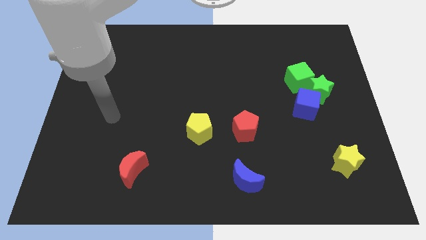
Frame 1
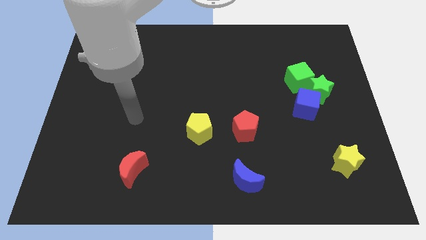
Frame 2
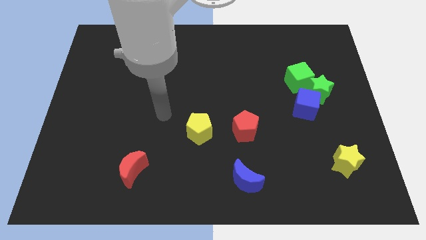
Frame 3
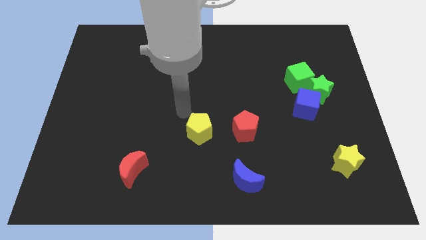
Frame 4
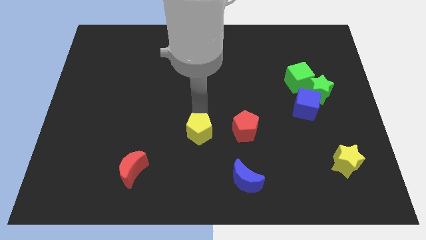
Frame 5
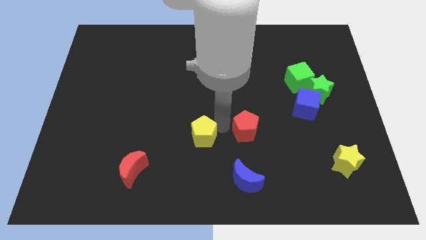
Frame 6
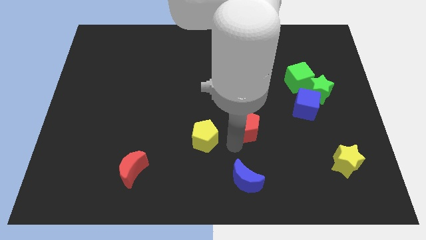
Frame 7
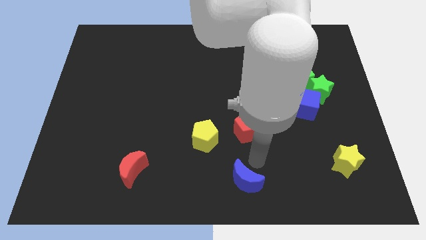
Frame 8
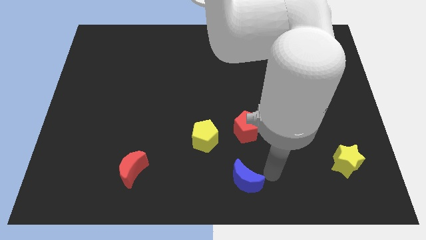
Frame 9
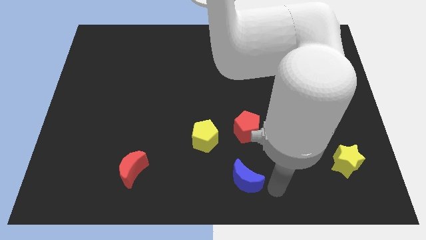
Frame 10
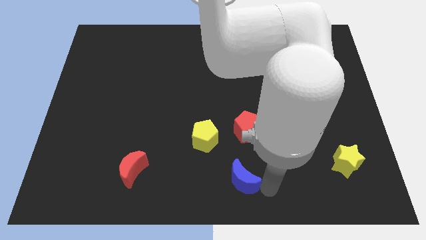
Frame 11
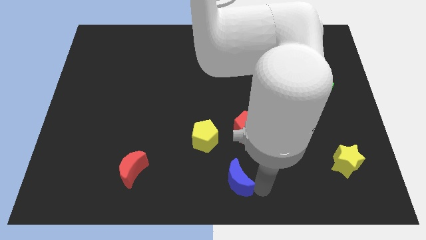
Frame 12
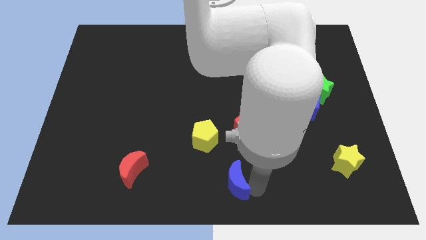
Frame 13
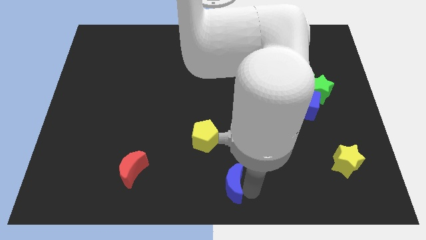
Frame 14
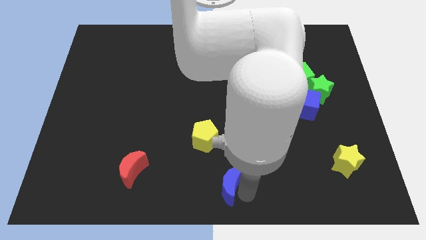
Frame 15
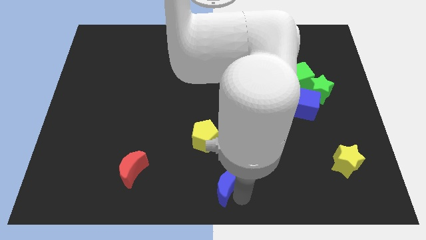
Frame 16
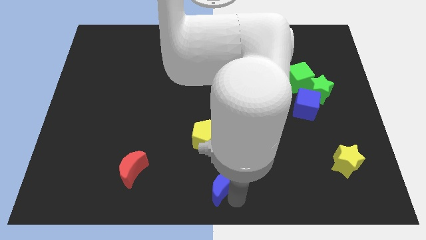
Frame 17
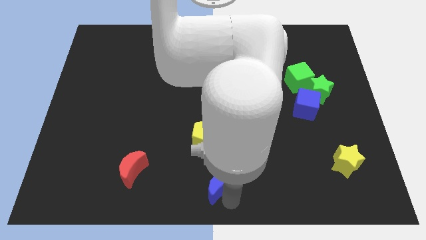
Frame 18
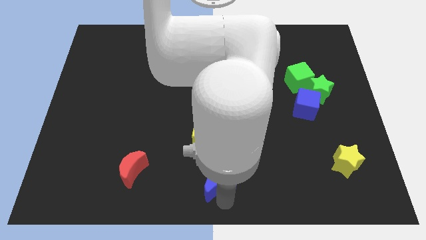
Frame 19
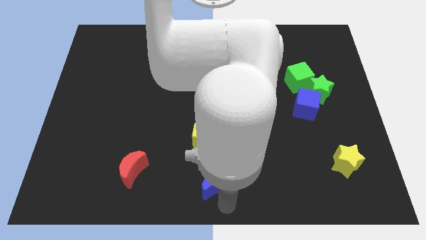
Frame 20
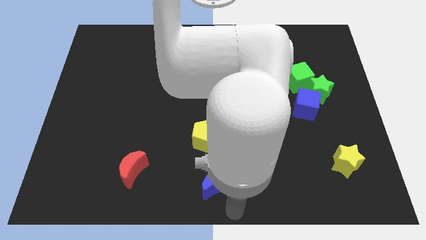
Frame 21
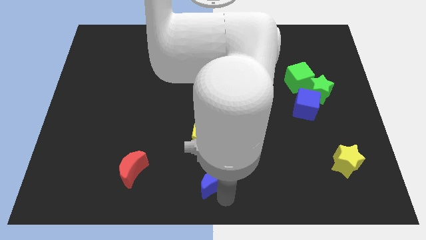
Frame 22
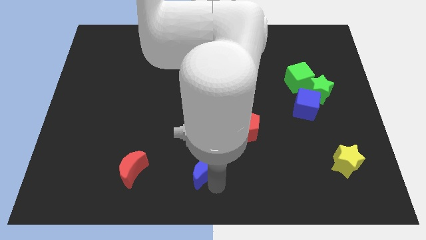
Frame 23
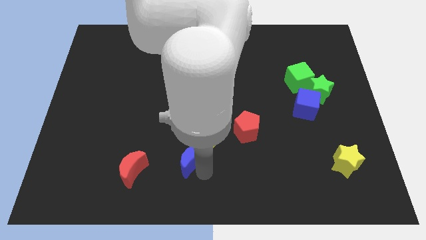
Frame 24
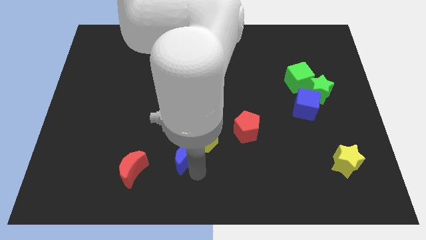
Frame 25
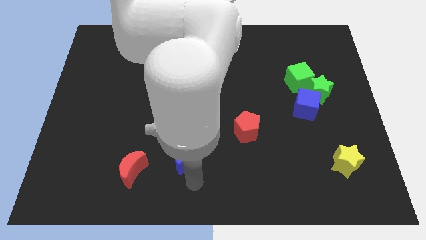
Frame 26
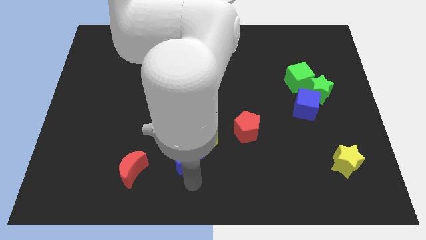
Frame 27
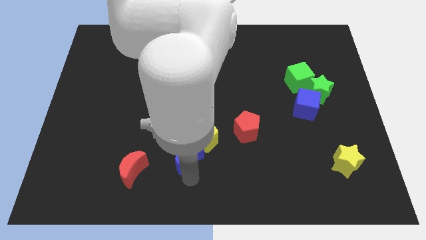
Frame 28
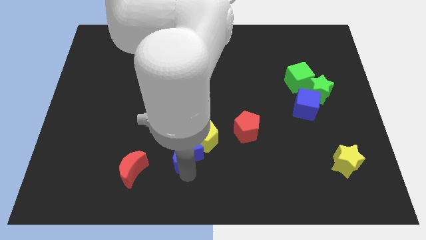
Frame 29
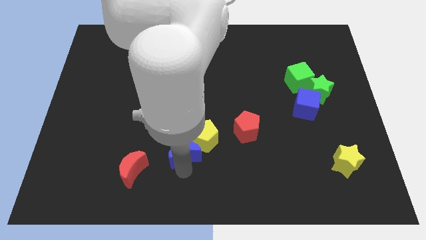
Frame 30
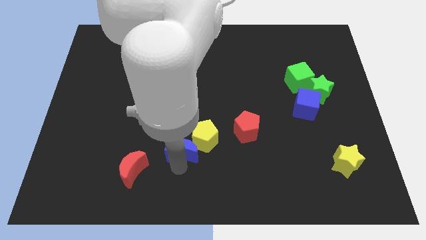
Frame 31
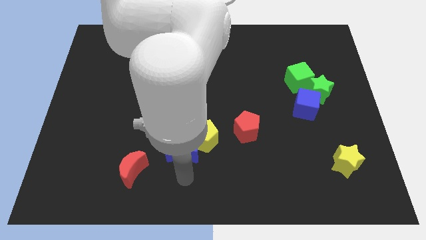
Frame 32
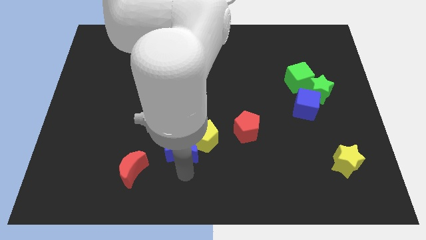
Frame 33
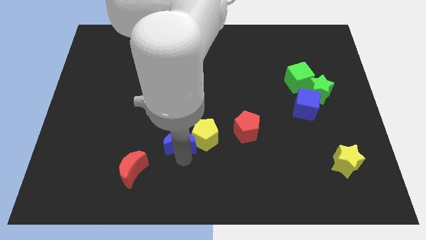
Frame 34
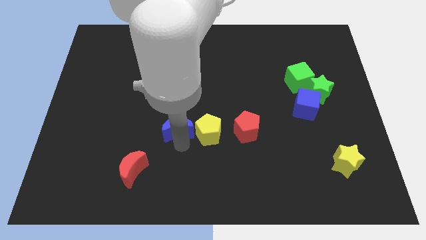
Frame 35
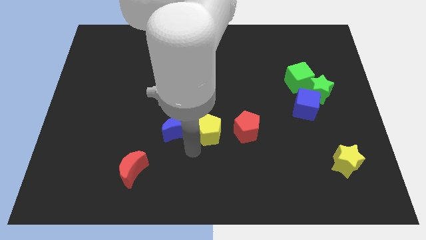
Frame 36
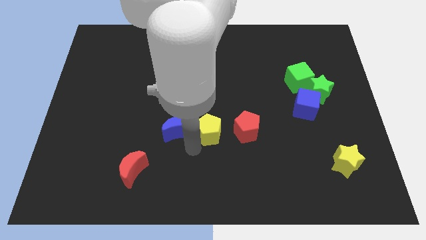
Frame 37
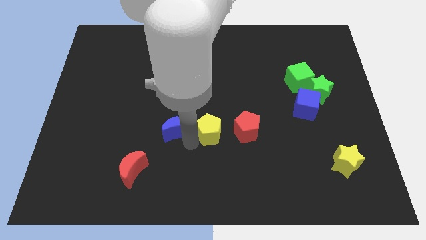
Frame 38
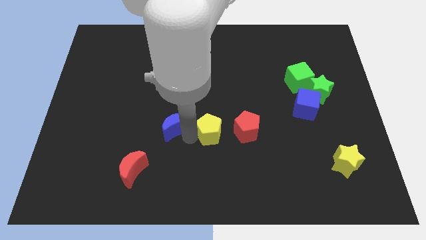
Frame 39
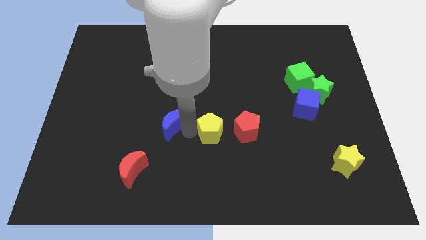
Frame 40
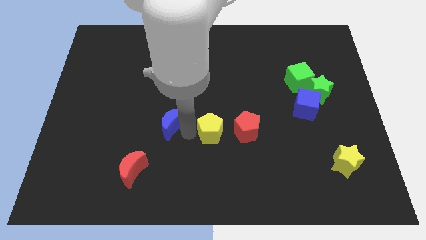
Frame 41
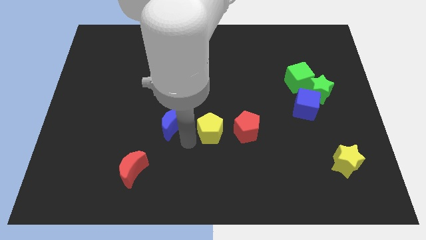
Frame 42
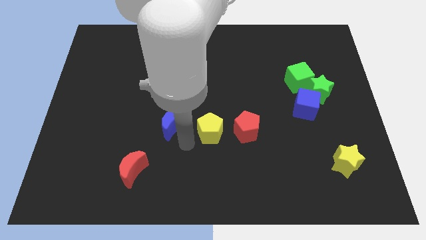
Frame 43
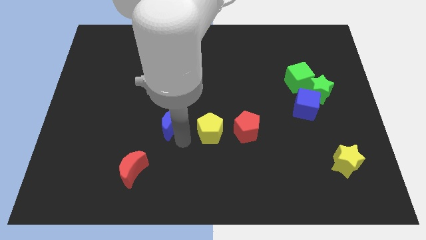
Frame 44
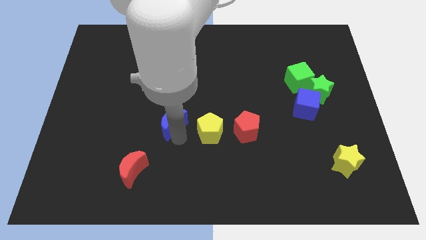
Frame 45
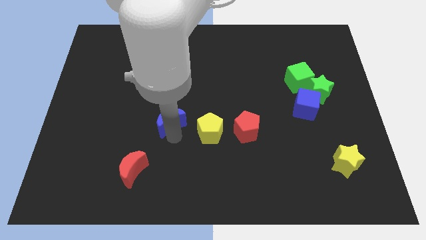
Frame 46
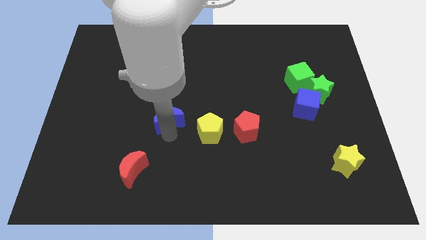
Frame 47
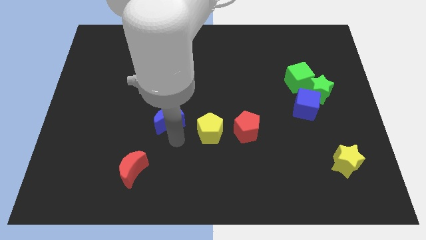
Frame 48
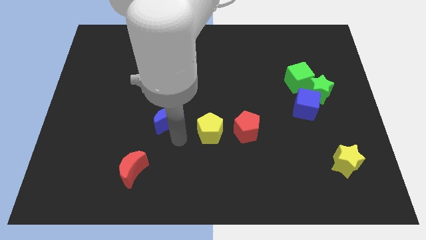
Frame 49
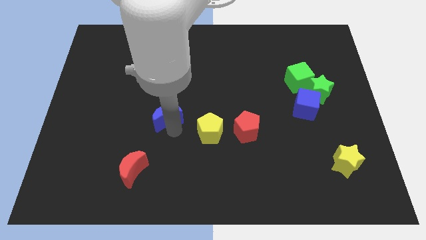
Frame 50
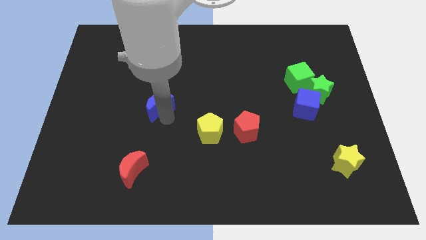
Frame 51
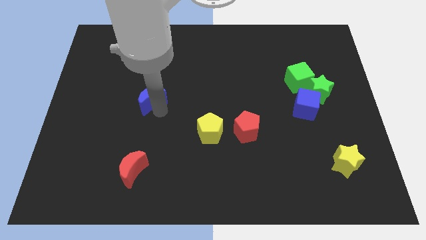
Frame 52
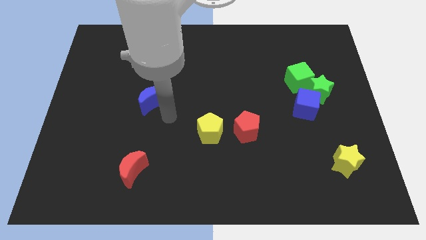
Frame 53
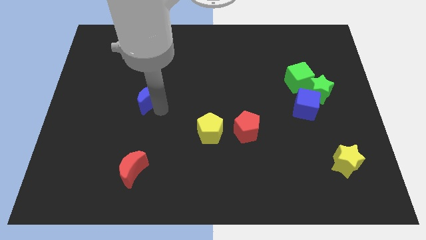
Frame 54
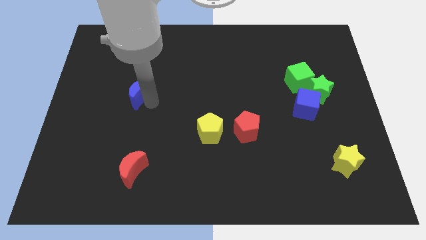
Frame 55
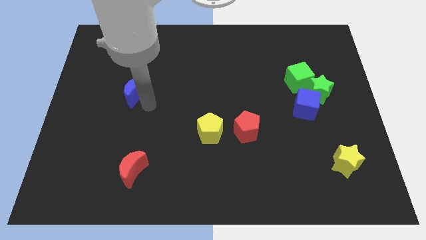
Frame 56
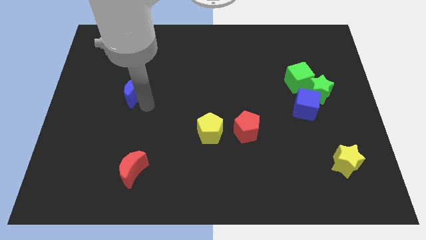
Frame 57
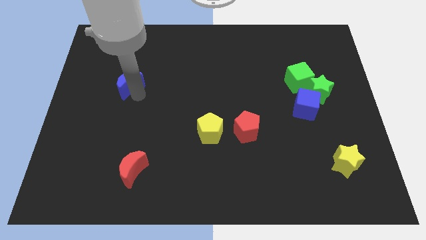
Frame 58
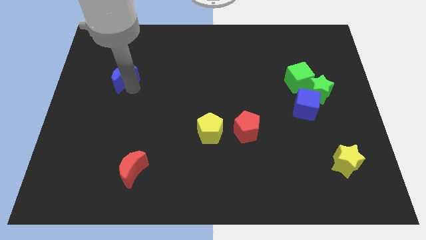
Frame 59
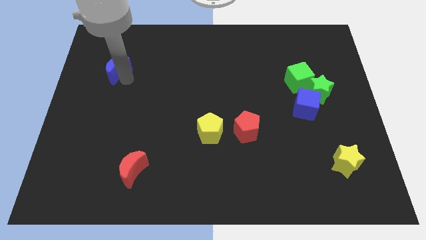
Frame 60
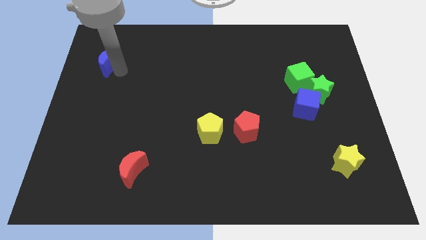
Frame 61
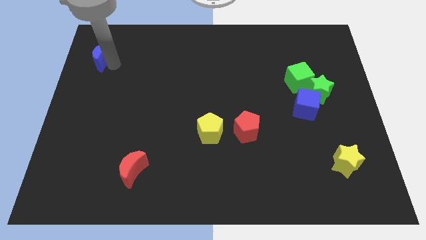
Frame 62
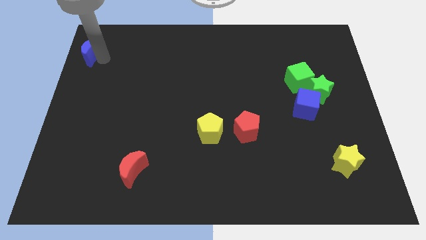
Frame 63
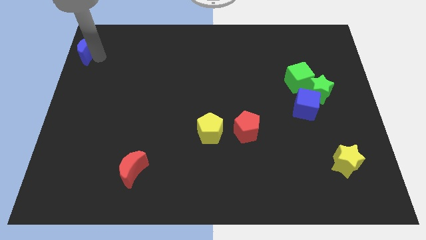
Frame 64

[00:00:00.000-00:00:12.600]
push the blue moon to the upper left corner
